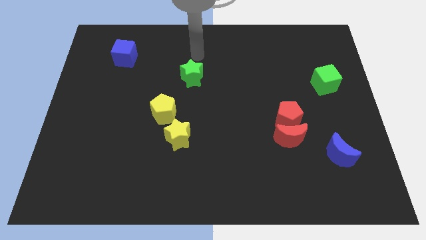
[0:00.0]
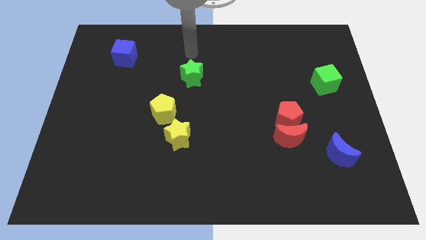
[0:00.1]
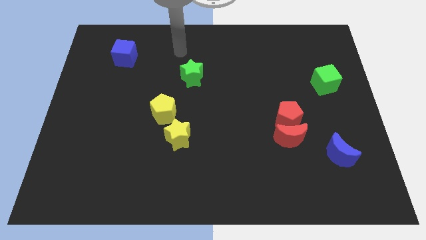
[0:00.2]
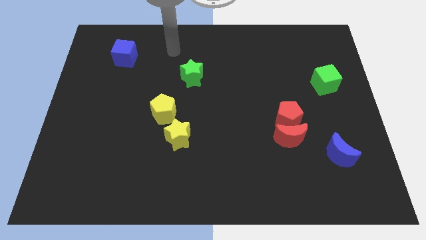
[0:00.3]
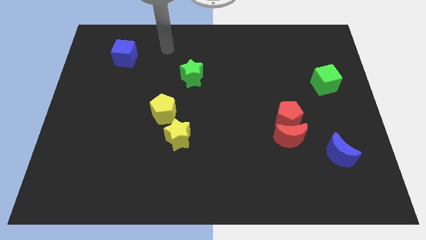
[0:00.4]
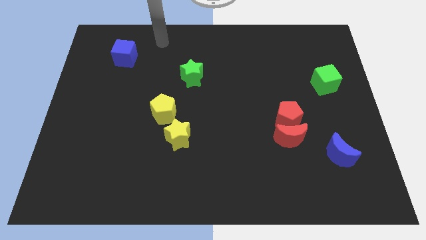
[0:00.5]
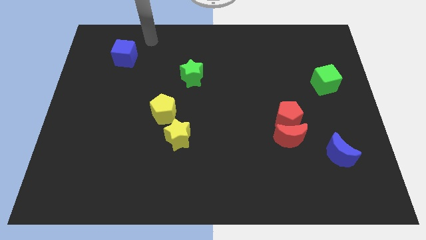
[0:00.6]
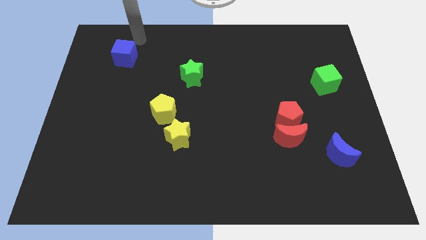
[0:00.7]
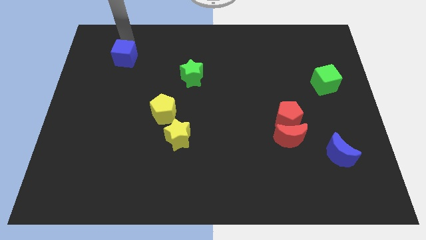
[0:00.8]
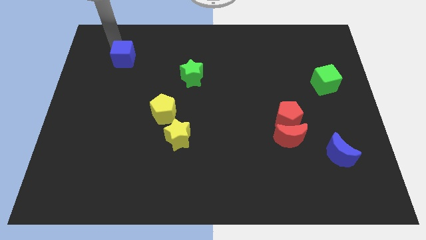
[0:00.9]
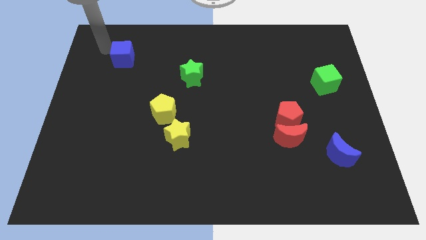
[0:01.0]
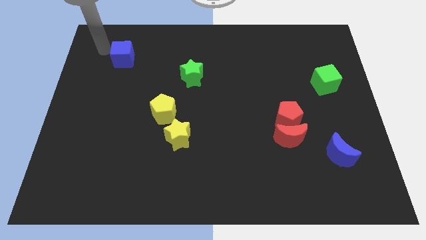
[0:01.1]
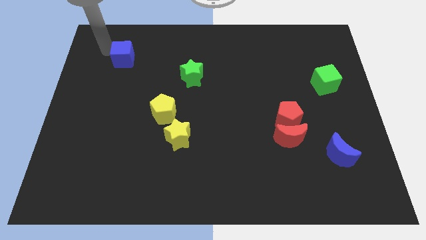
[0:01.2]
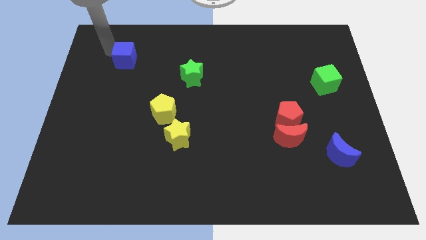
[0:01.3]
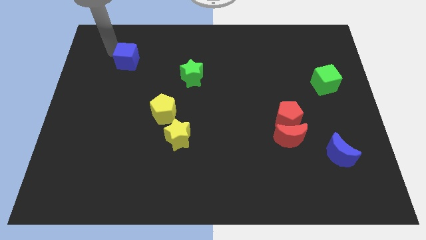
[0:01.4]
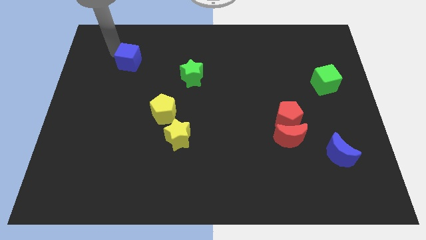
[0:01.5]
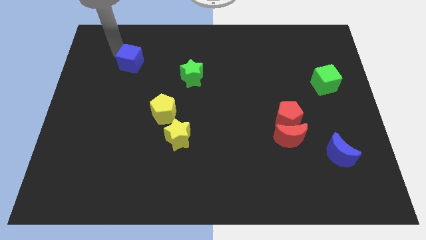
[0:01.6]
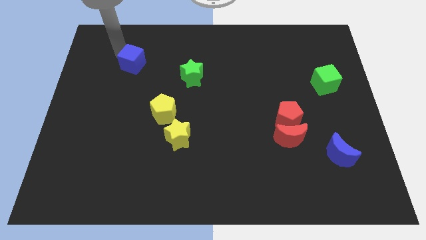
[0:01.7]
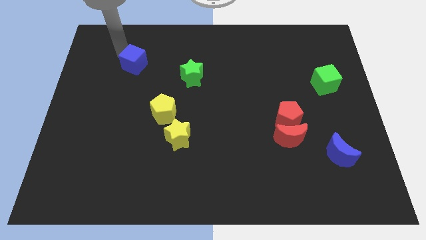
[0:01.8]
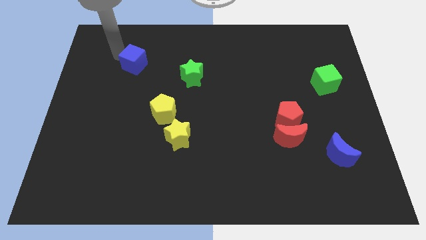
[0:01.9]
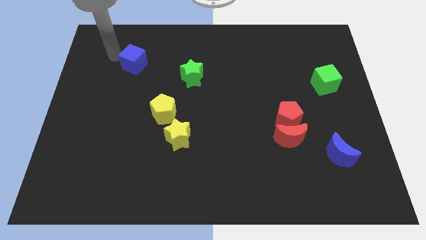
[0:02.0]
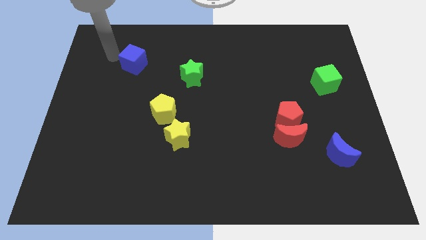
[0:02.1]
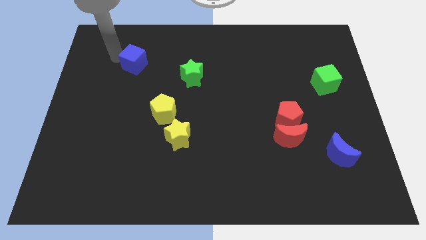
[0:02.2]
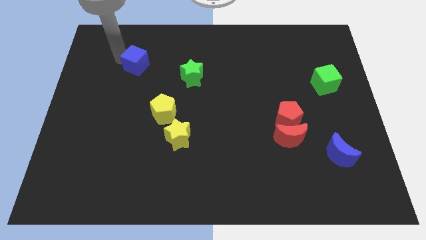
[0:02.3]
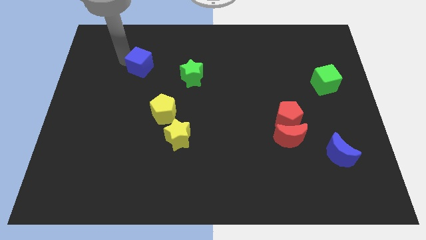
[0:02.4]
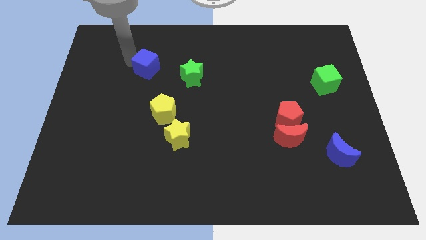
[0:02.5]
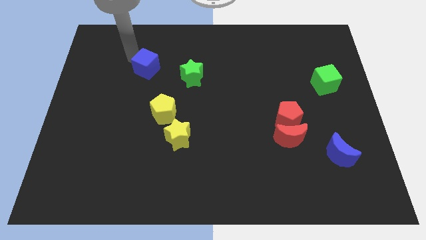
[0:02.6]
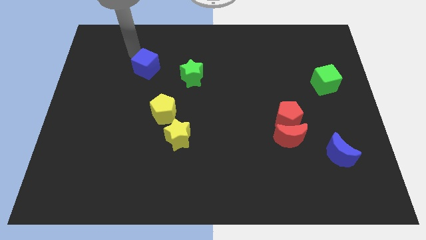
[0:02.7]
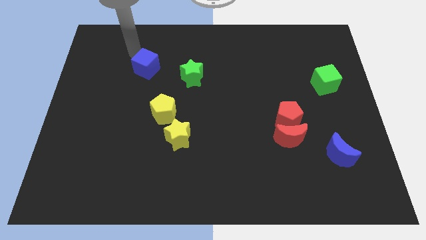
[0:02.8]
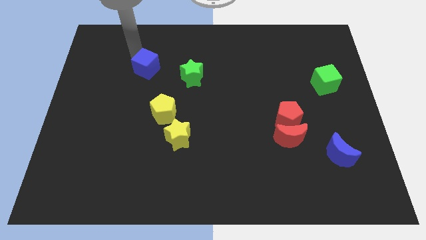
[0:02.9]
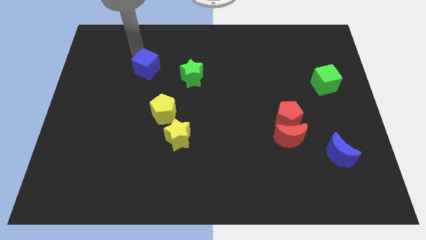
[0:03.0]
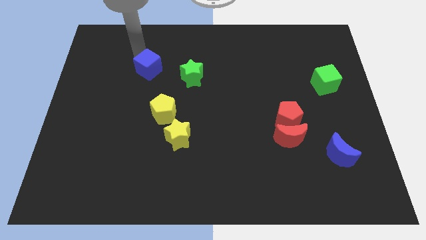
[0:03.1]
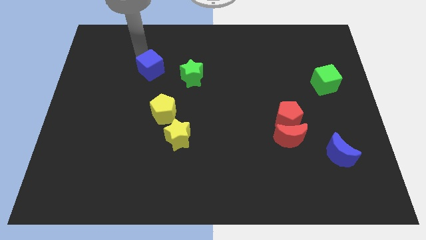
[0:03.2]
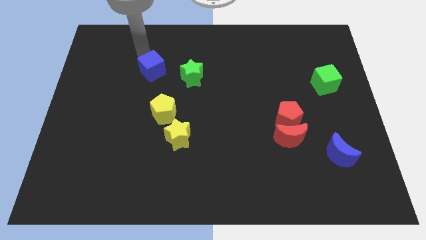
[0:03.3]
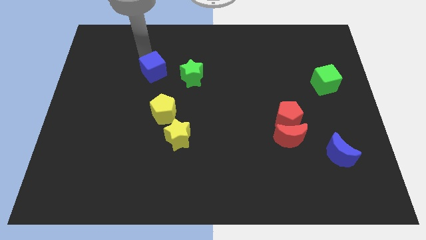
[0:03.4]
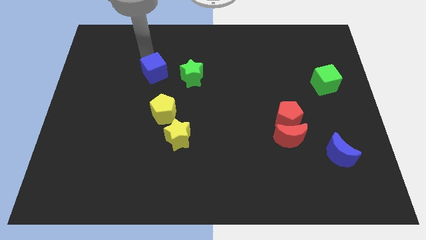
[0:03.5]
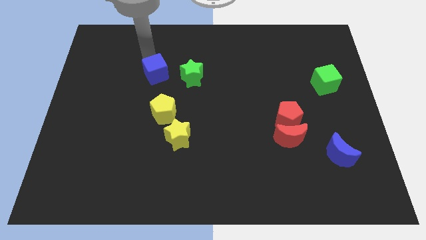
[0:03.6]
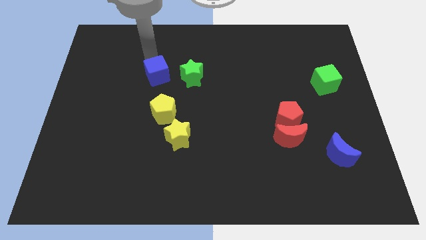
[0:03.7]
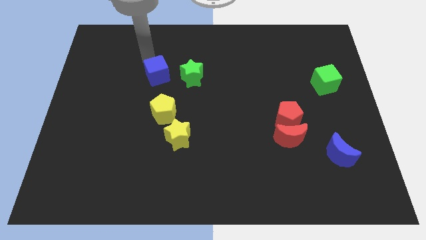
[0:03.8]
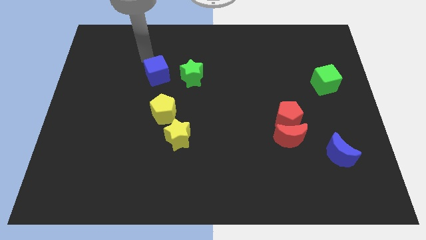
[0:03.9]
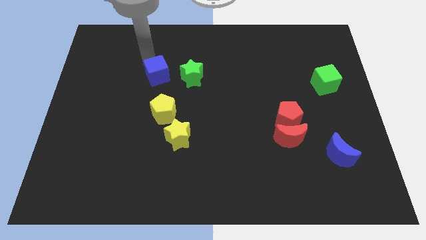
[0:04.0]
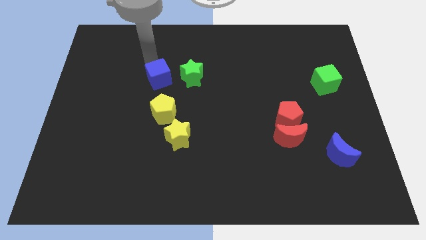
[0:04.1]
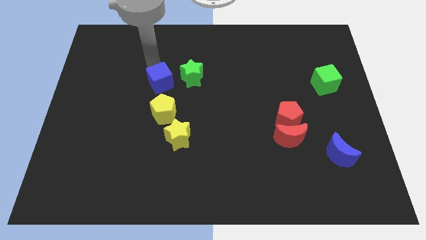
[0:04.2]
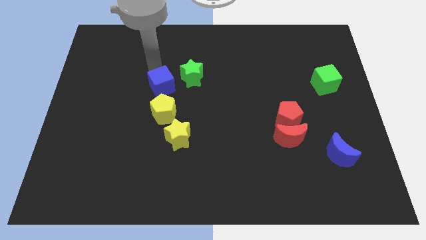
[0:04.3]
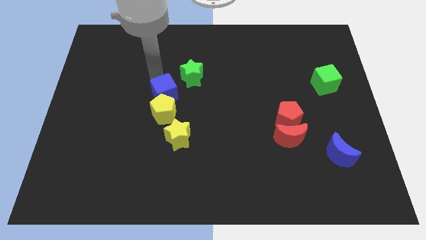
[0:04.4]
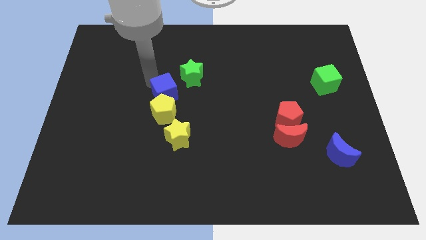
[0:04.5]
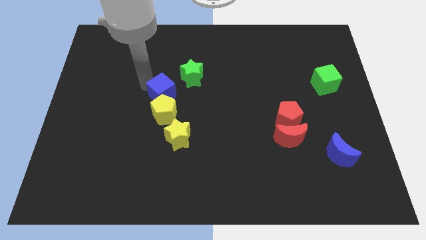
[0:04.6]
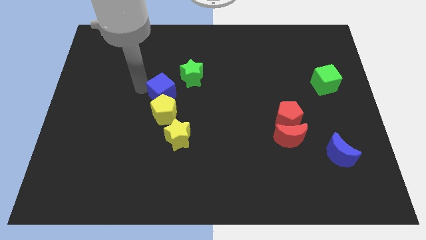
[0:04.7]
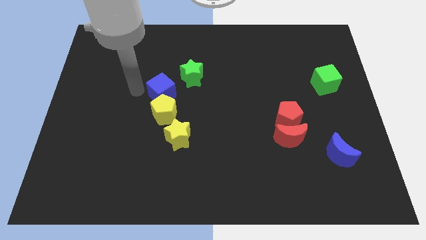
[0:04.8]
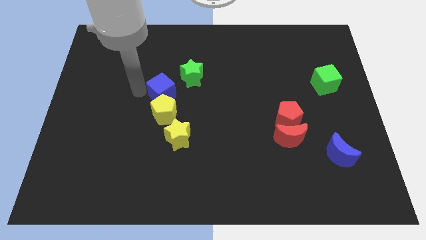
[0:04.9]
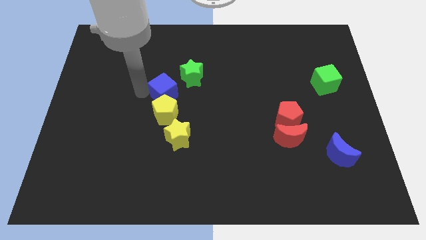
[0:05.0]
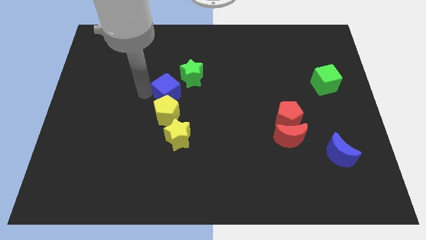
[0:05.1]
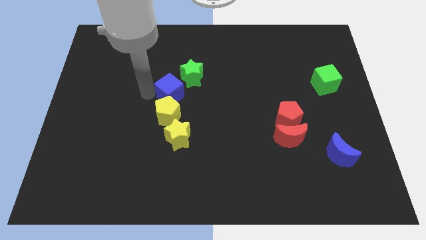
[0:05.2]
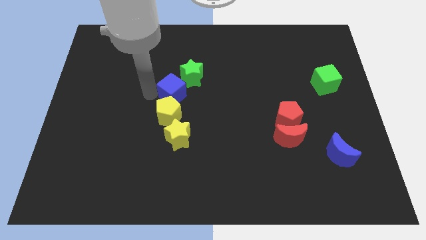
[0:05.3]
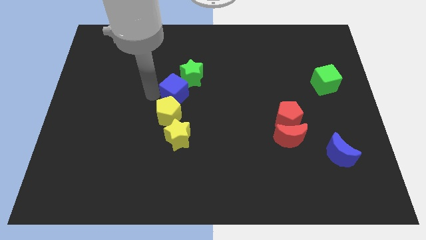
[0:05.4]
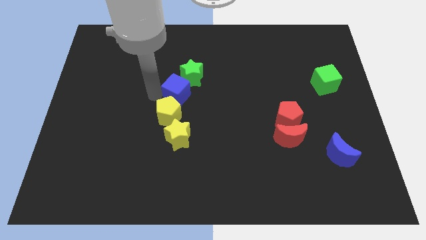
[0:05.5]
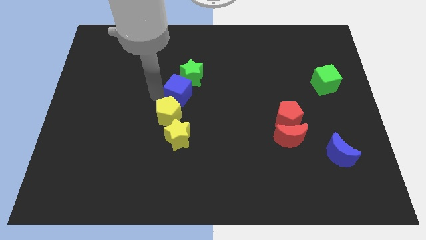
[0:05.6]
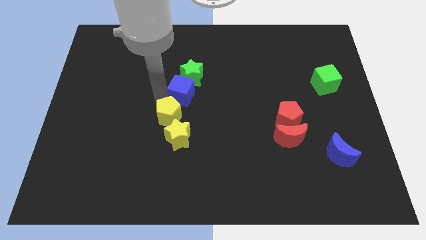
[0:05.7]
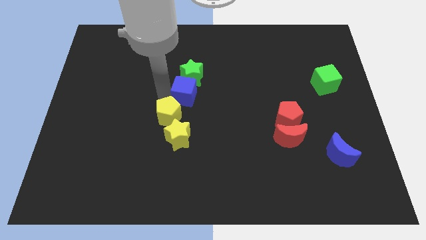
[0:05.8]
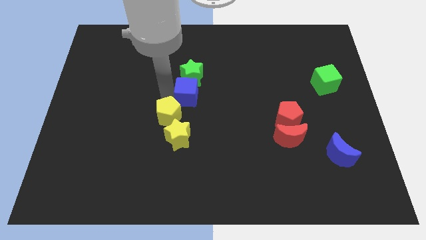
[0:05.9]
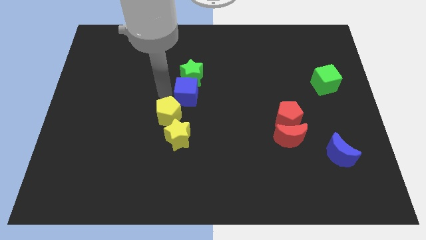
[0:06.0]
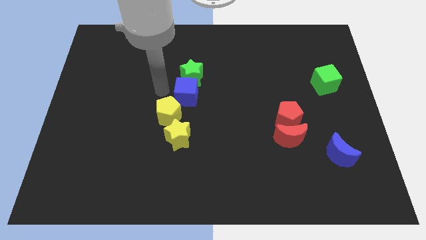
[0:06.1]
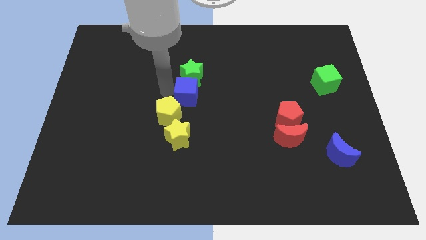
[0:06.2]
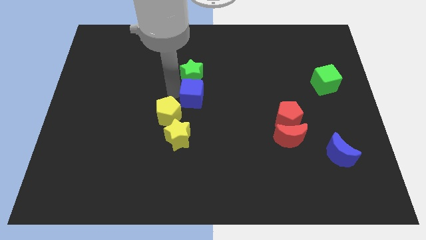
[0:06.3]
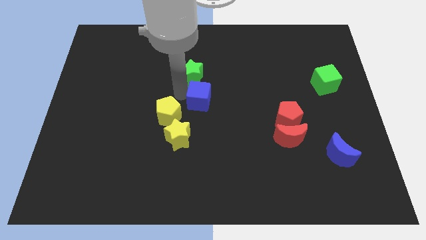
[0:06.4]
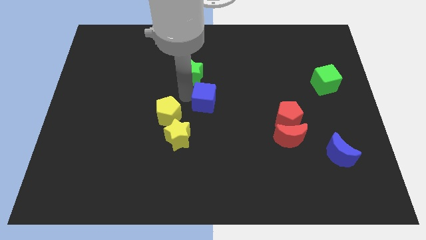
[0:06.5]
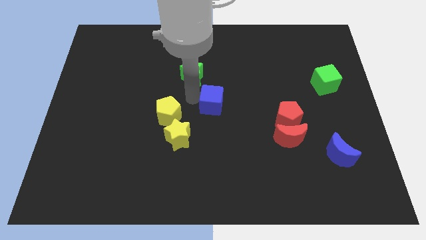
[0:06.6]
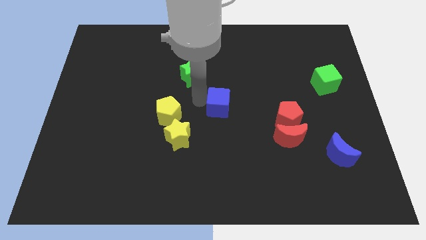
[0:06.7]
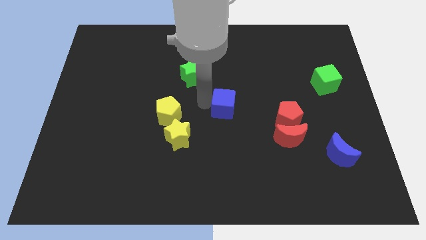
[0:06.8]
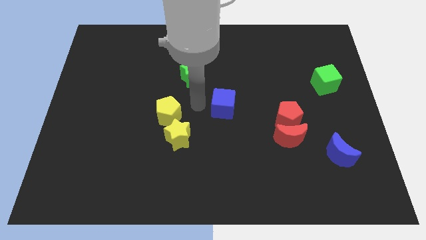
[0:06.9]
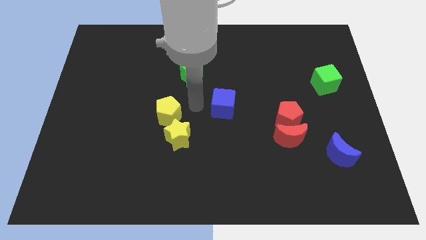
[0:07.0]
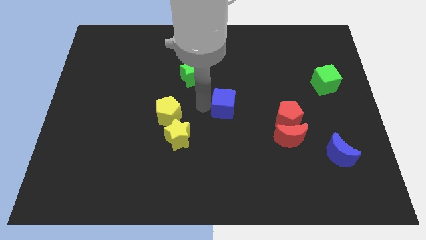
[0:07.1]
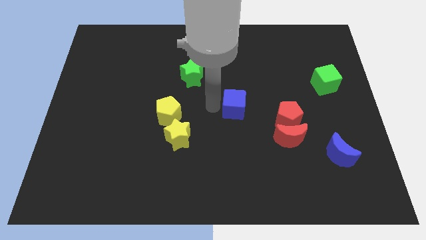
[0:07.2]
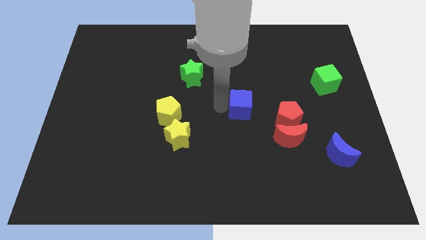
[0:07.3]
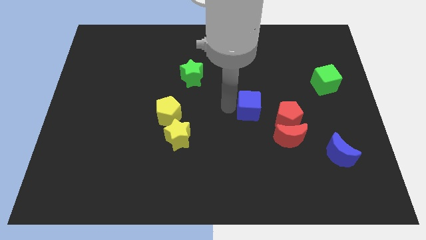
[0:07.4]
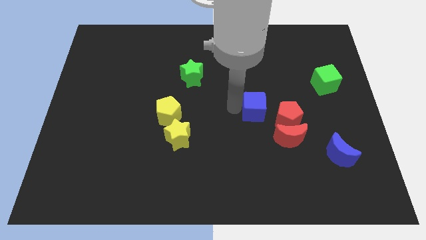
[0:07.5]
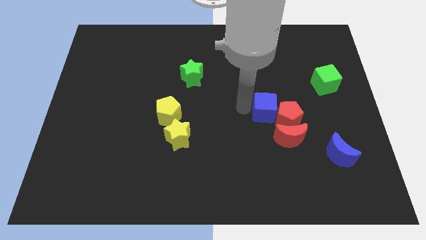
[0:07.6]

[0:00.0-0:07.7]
move the blue cube next to the red pentagon
